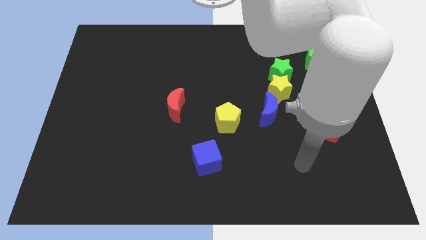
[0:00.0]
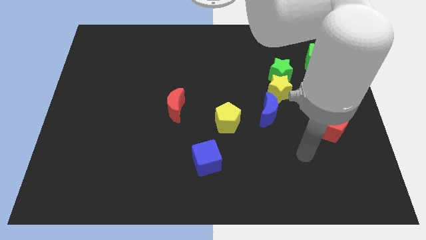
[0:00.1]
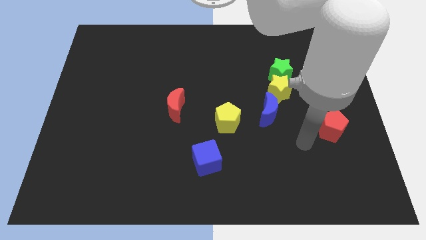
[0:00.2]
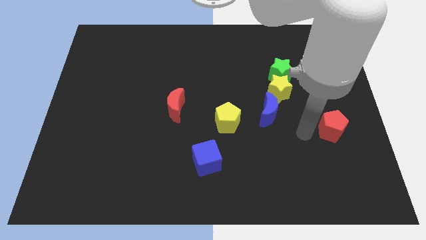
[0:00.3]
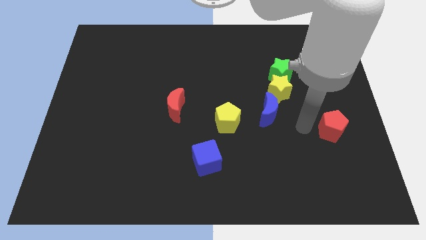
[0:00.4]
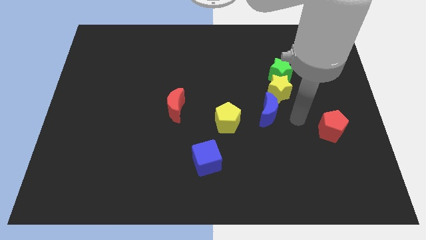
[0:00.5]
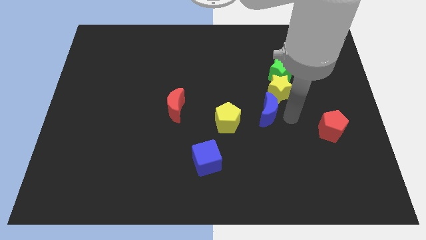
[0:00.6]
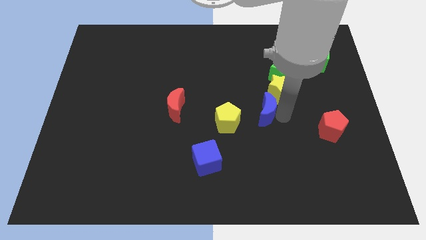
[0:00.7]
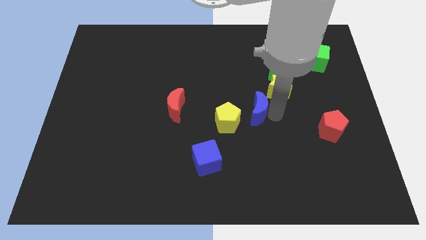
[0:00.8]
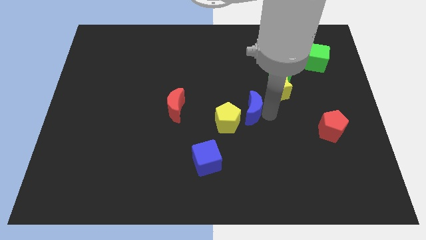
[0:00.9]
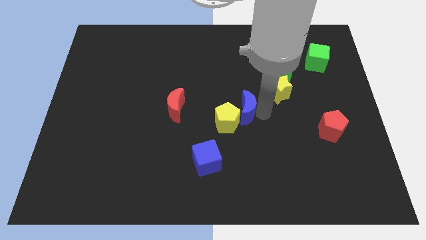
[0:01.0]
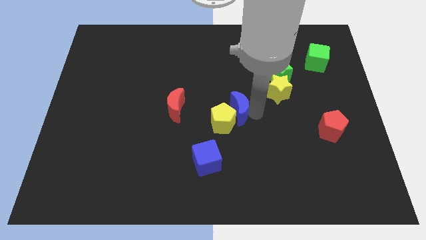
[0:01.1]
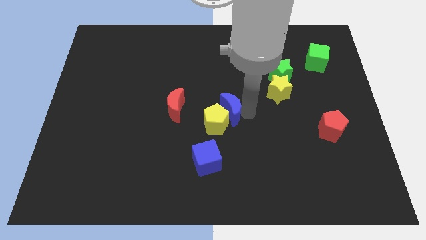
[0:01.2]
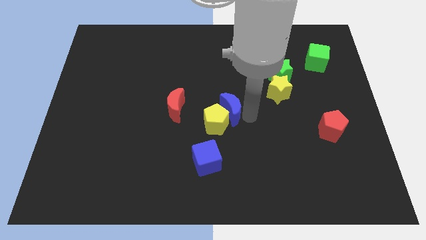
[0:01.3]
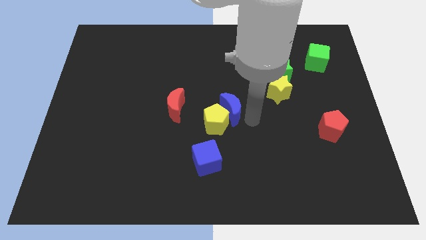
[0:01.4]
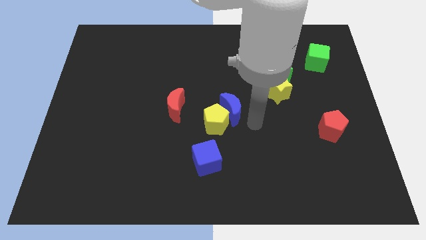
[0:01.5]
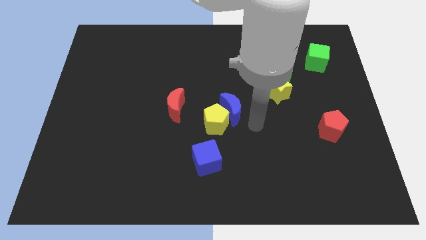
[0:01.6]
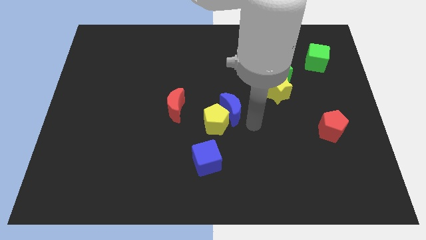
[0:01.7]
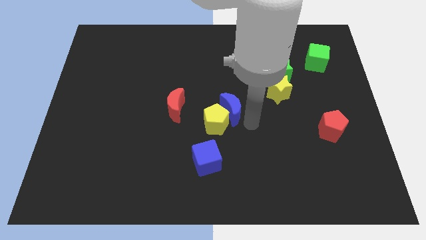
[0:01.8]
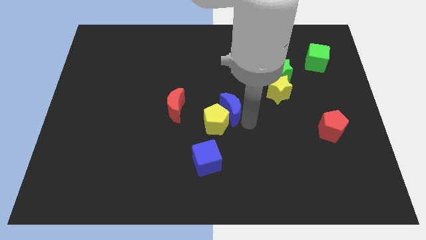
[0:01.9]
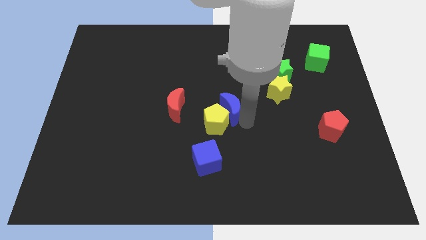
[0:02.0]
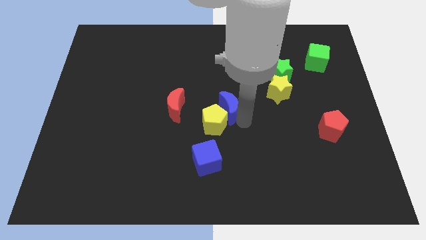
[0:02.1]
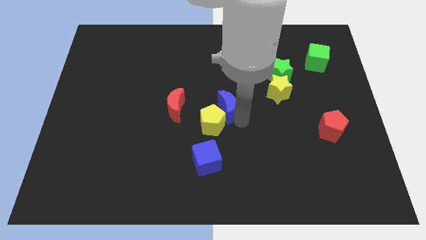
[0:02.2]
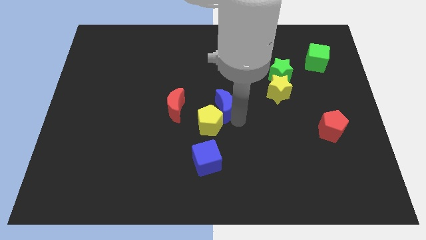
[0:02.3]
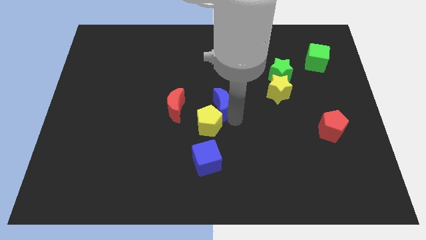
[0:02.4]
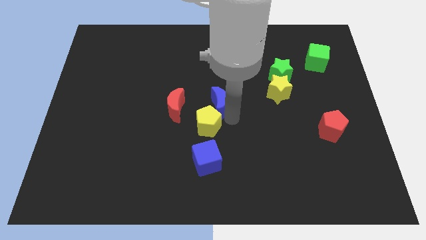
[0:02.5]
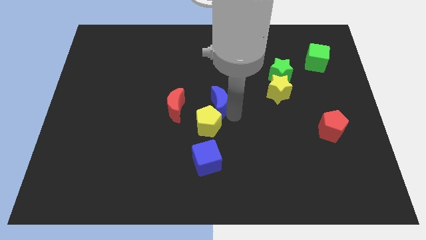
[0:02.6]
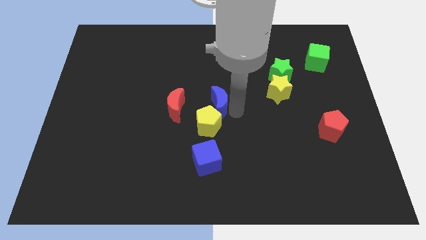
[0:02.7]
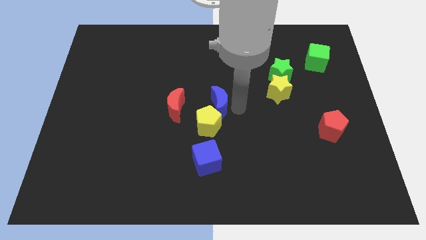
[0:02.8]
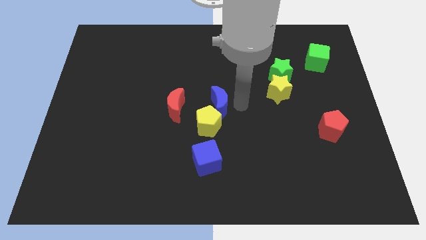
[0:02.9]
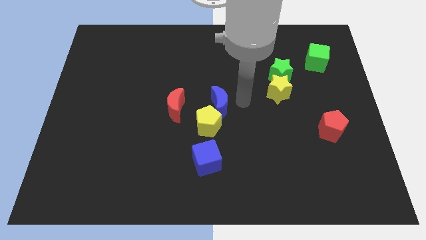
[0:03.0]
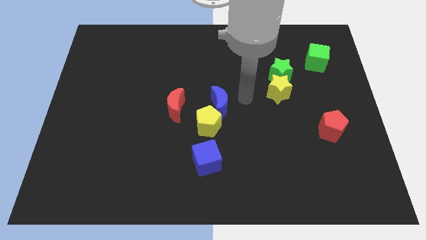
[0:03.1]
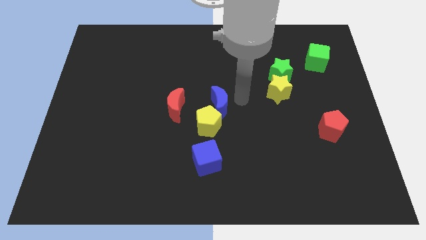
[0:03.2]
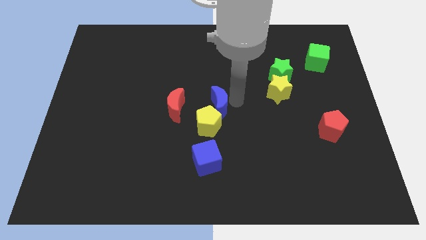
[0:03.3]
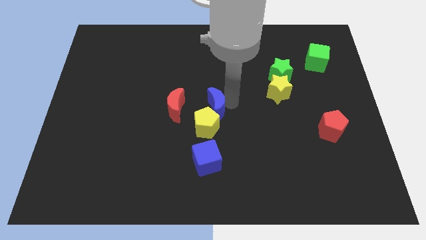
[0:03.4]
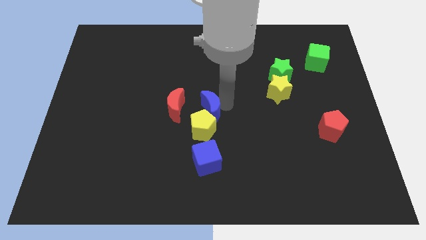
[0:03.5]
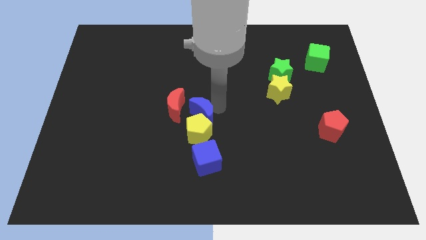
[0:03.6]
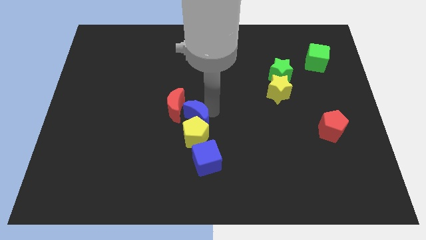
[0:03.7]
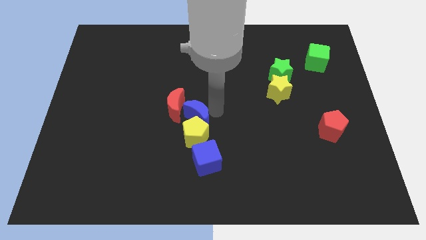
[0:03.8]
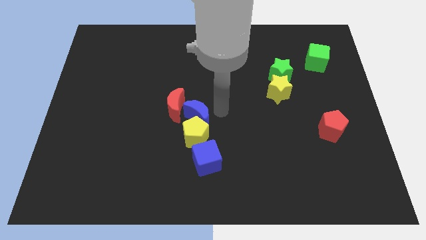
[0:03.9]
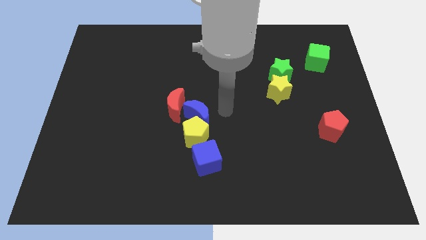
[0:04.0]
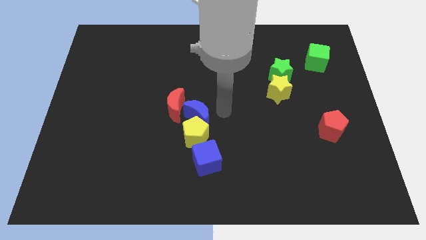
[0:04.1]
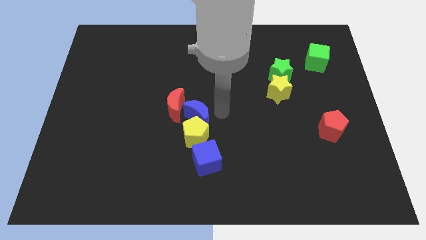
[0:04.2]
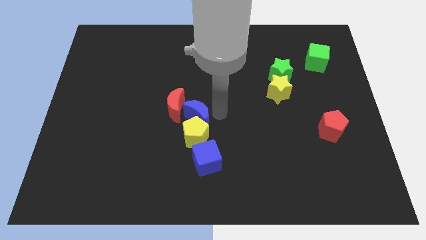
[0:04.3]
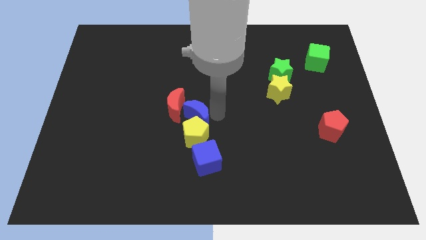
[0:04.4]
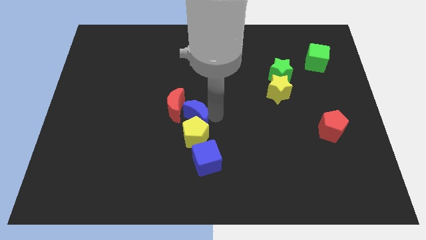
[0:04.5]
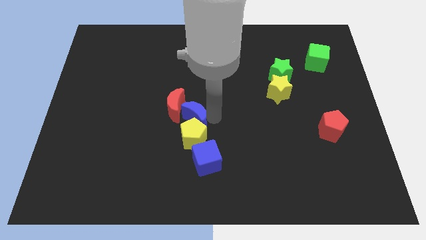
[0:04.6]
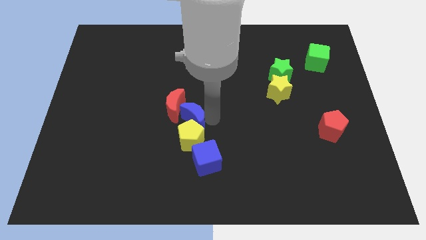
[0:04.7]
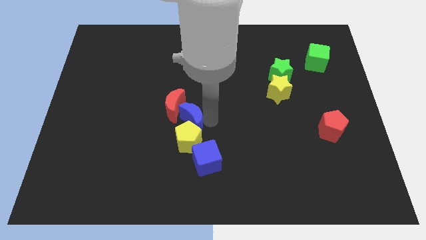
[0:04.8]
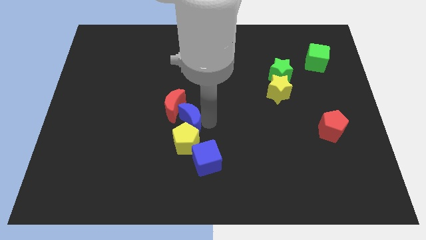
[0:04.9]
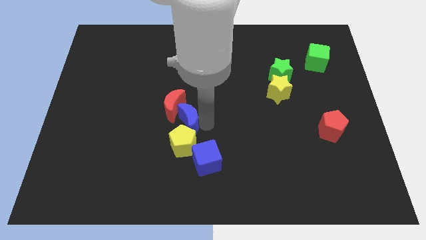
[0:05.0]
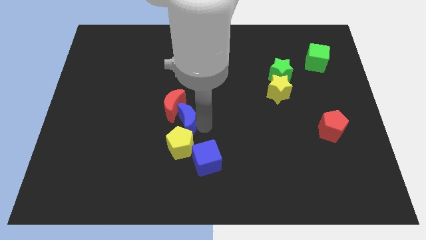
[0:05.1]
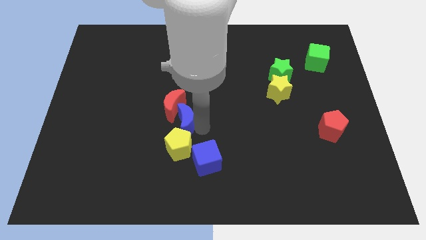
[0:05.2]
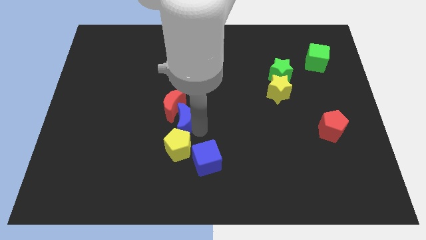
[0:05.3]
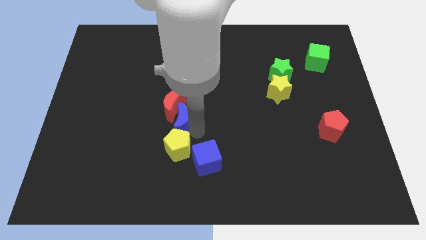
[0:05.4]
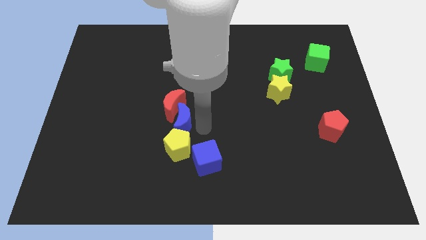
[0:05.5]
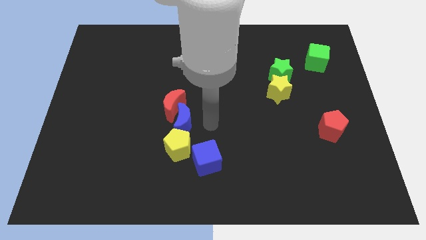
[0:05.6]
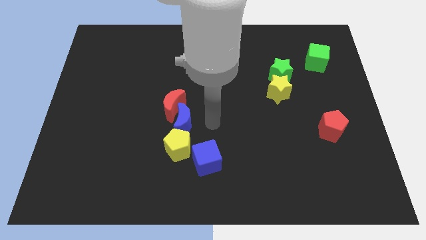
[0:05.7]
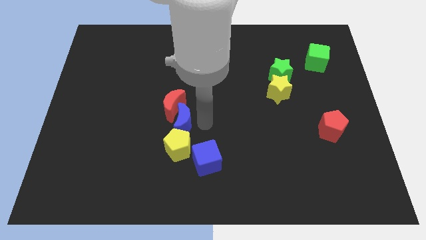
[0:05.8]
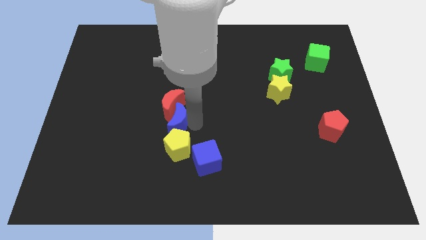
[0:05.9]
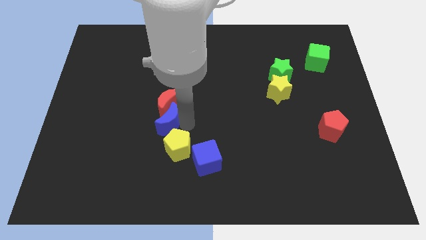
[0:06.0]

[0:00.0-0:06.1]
put the blue moon to the bottom left of the red moon
